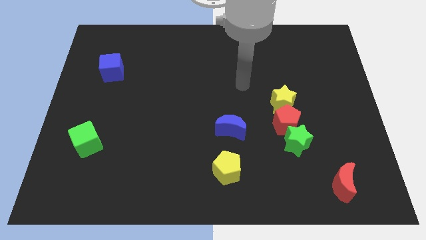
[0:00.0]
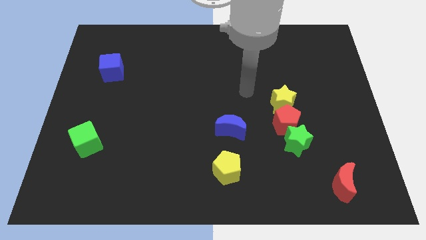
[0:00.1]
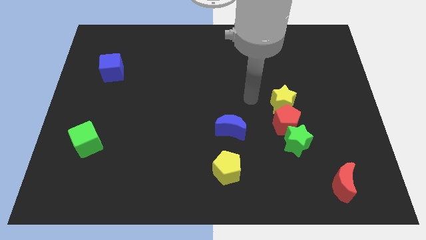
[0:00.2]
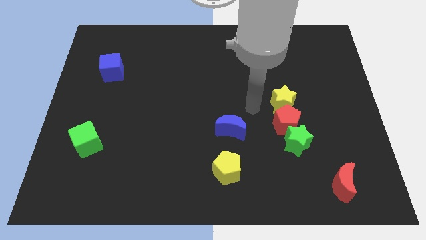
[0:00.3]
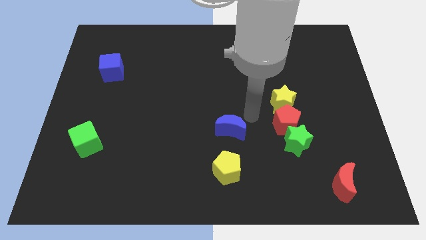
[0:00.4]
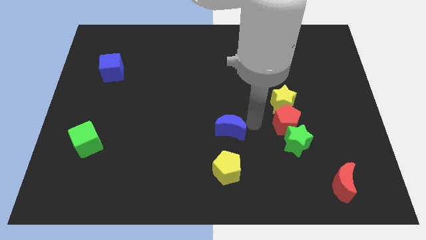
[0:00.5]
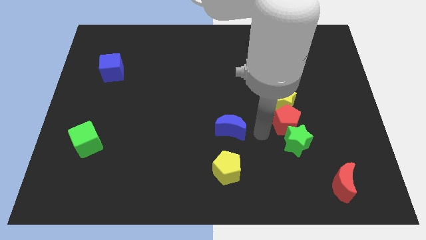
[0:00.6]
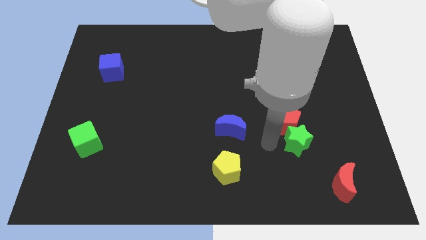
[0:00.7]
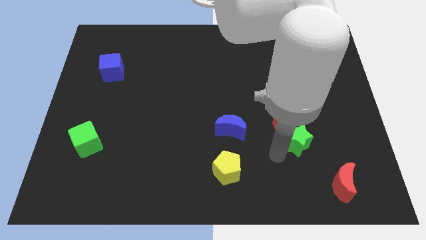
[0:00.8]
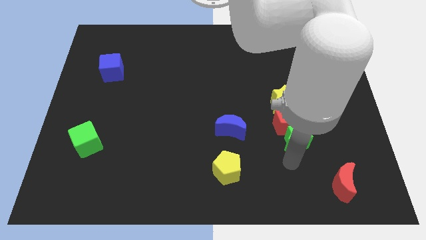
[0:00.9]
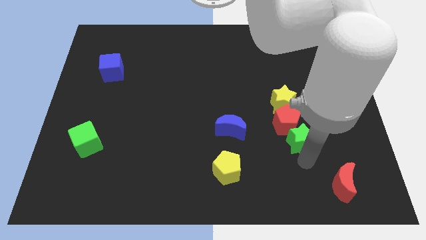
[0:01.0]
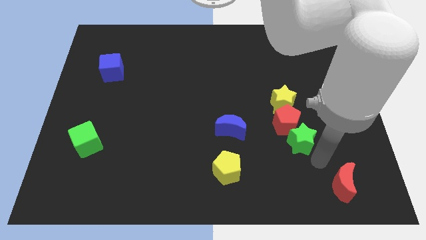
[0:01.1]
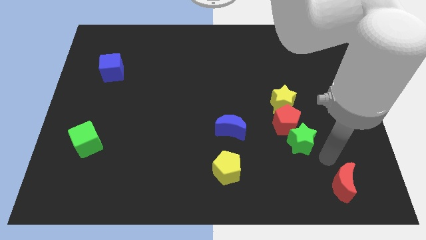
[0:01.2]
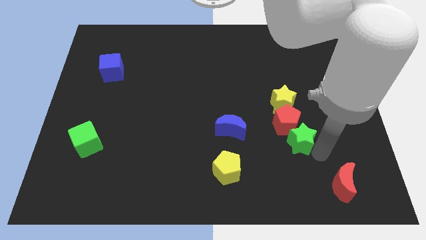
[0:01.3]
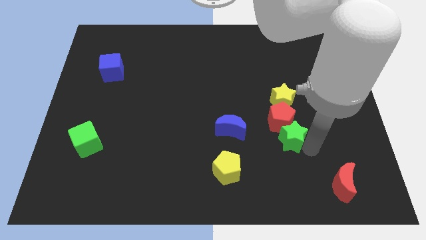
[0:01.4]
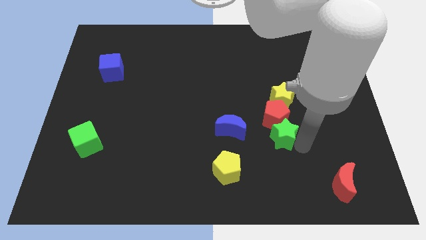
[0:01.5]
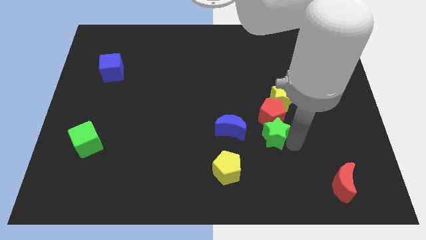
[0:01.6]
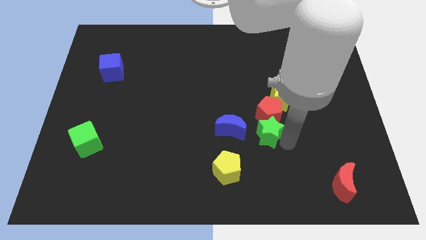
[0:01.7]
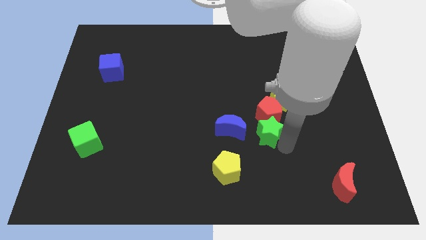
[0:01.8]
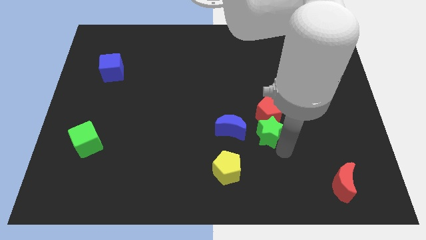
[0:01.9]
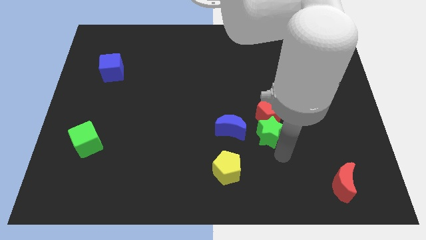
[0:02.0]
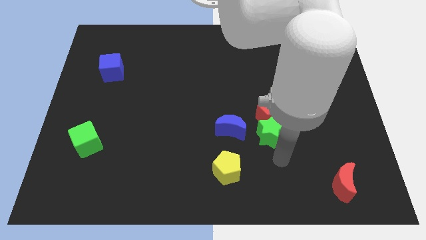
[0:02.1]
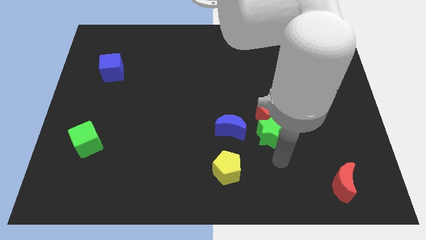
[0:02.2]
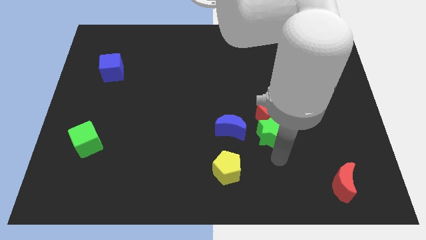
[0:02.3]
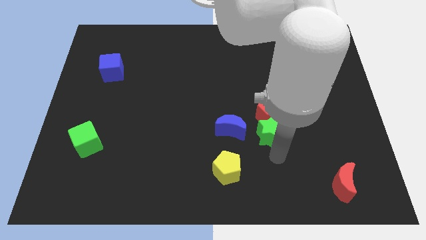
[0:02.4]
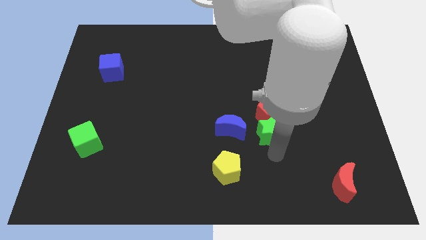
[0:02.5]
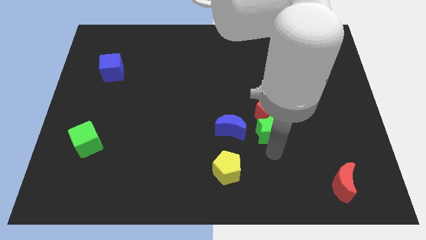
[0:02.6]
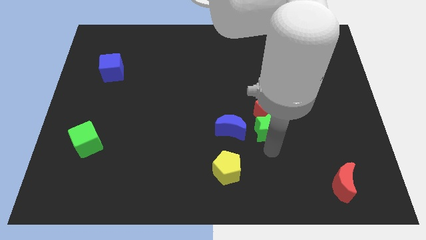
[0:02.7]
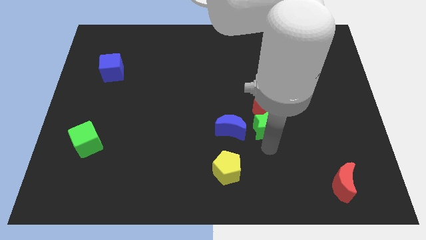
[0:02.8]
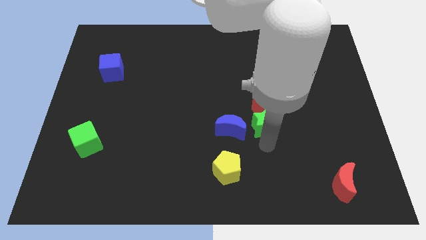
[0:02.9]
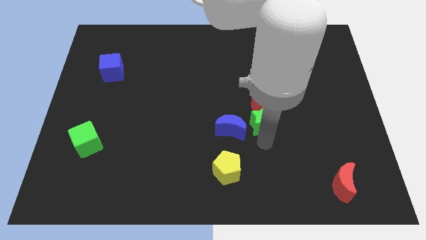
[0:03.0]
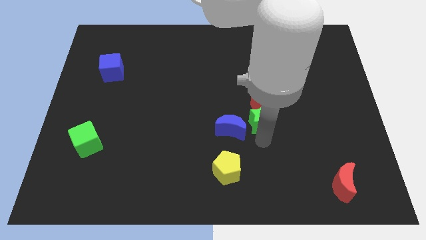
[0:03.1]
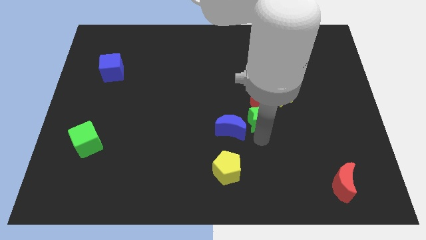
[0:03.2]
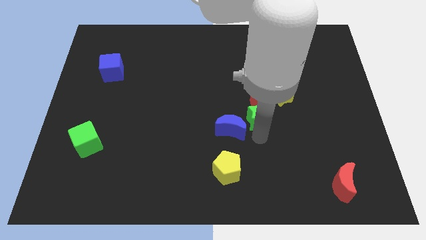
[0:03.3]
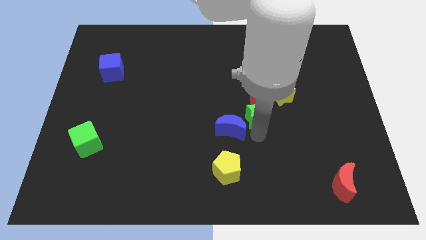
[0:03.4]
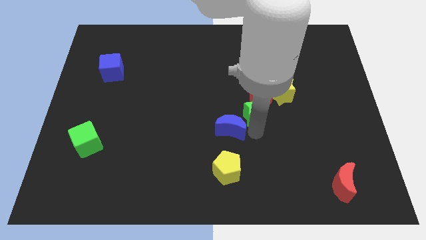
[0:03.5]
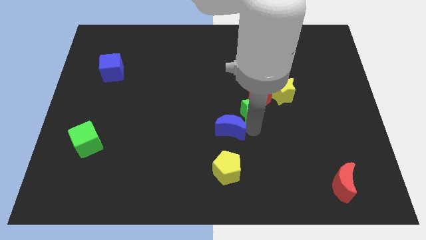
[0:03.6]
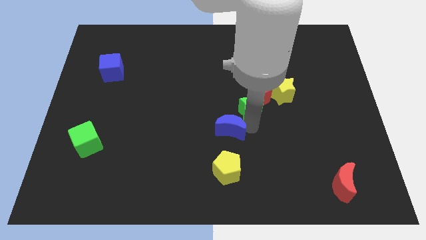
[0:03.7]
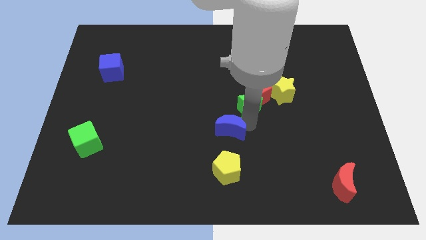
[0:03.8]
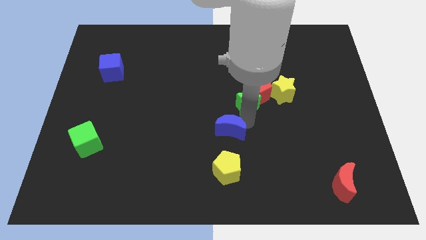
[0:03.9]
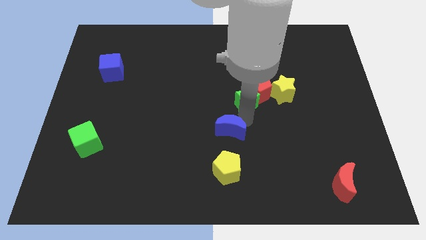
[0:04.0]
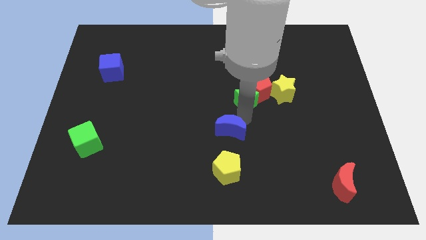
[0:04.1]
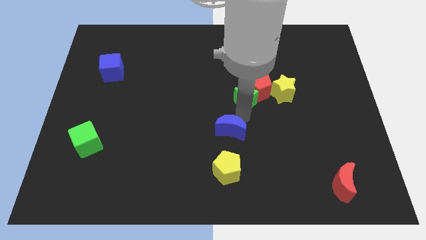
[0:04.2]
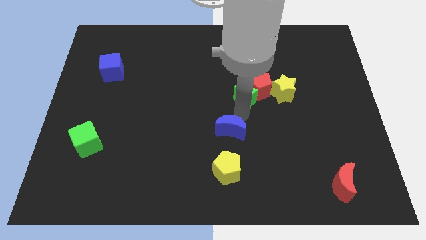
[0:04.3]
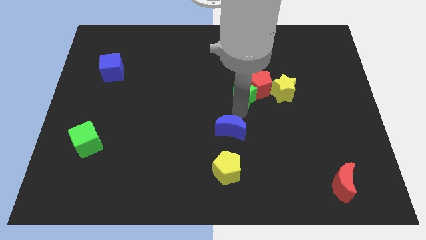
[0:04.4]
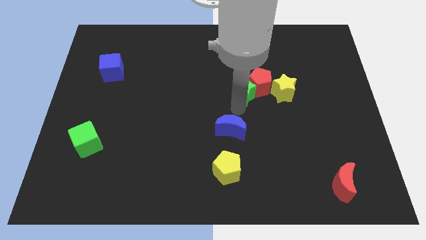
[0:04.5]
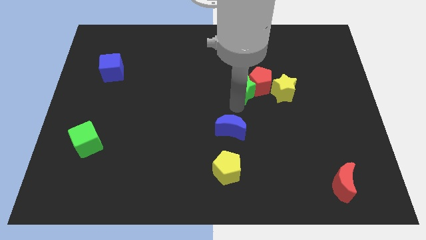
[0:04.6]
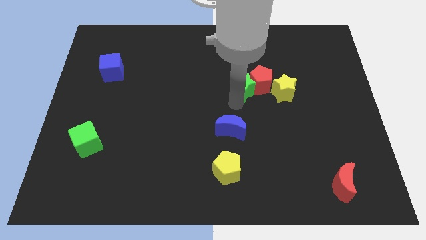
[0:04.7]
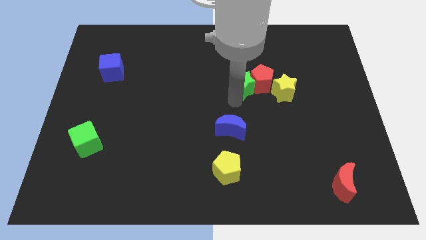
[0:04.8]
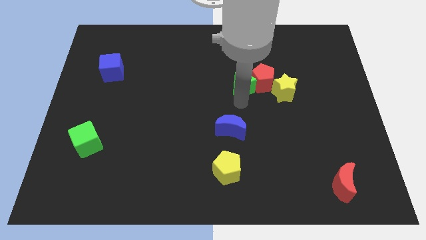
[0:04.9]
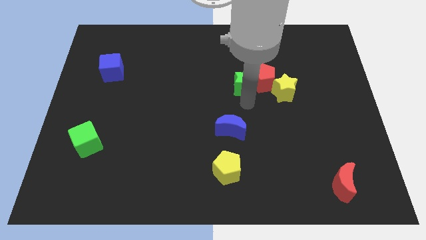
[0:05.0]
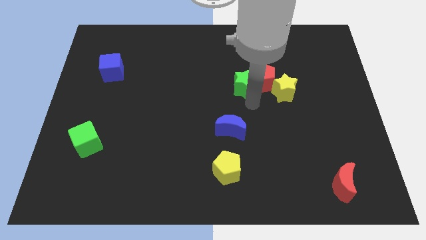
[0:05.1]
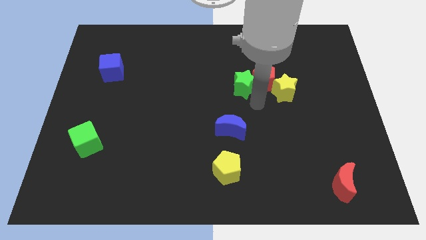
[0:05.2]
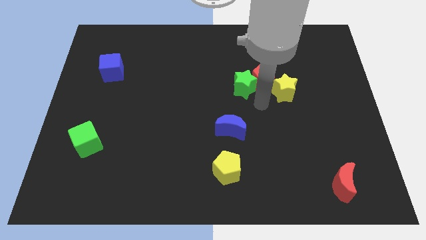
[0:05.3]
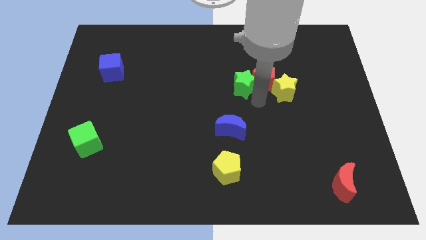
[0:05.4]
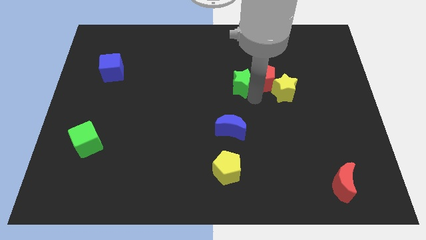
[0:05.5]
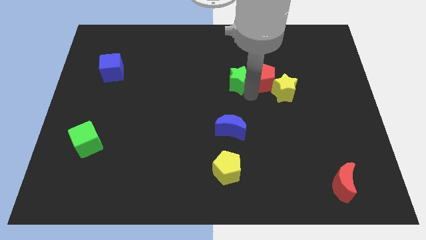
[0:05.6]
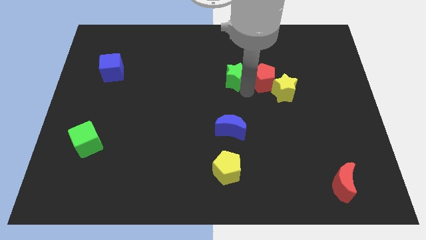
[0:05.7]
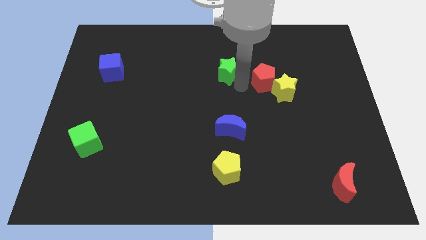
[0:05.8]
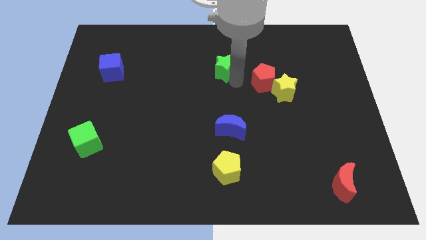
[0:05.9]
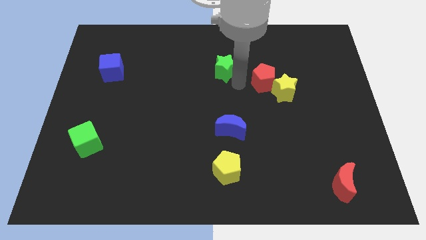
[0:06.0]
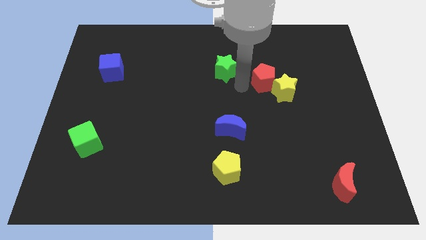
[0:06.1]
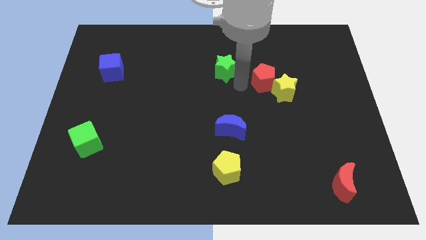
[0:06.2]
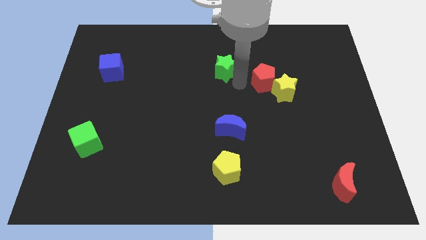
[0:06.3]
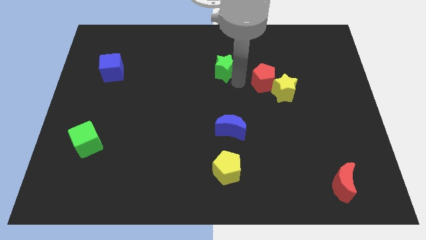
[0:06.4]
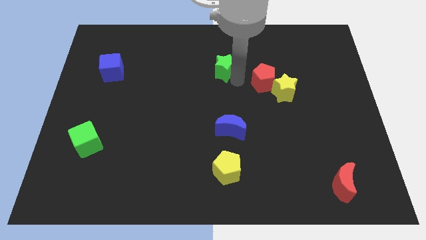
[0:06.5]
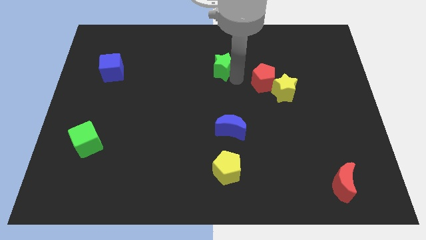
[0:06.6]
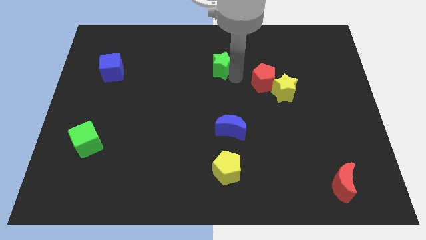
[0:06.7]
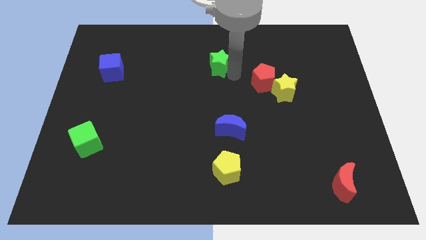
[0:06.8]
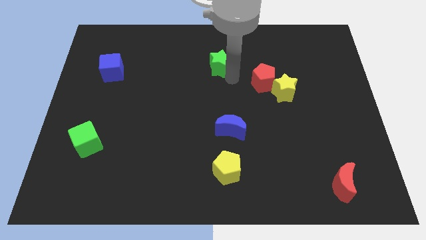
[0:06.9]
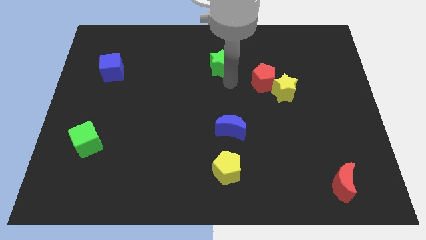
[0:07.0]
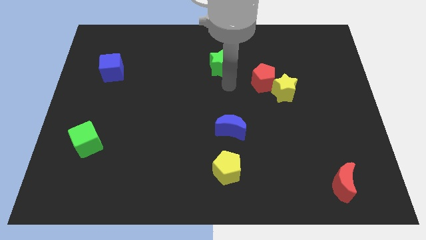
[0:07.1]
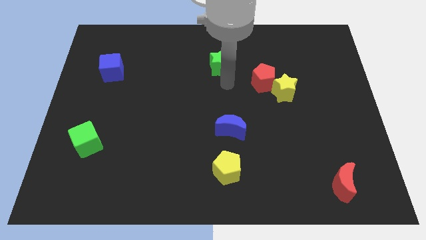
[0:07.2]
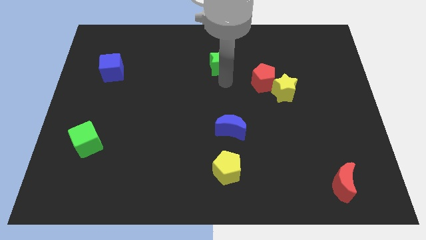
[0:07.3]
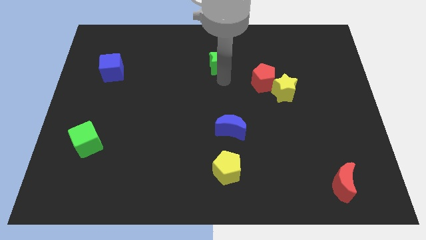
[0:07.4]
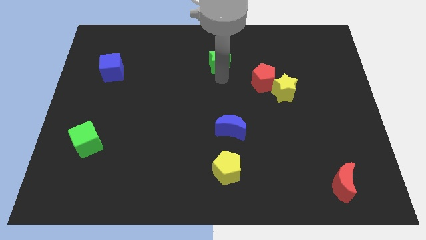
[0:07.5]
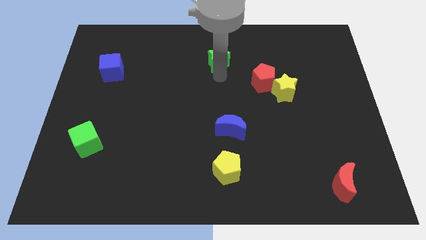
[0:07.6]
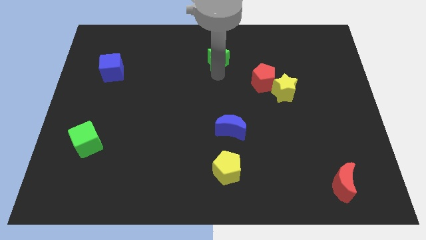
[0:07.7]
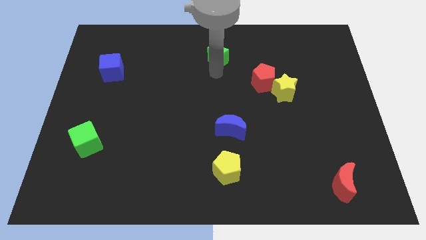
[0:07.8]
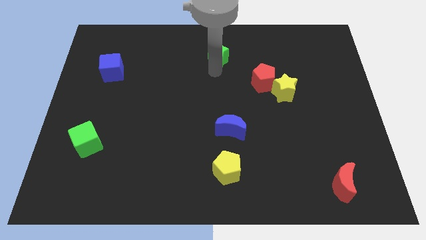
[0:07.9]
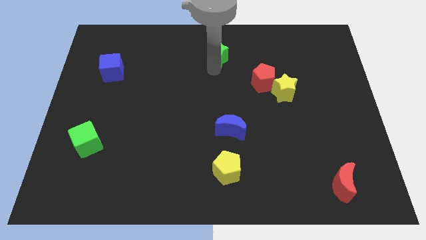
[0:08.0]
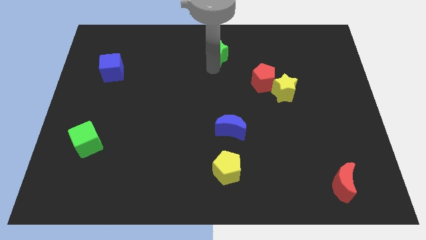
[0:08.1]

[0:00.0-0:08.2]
put the green star to the towards your base
